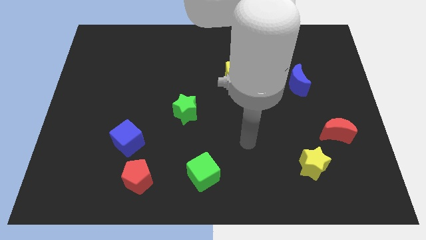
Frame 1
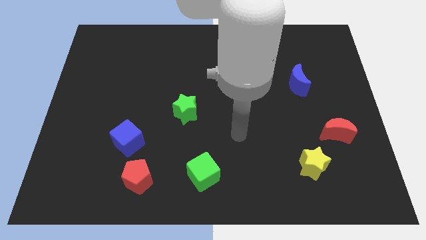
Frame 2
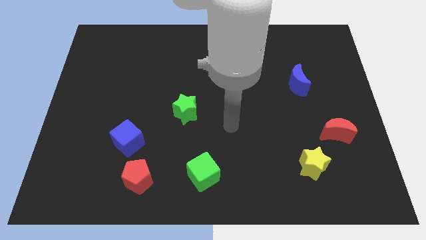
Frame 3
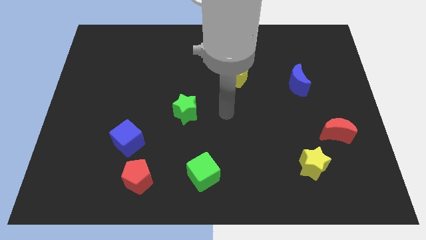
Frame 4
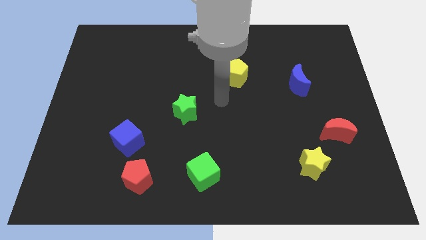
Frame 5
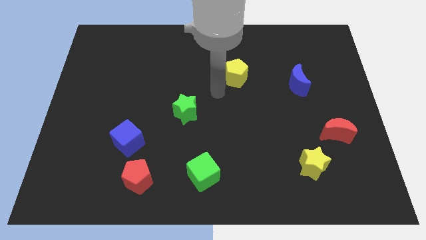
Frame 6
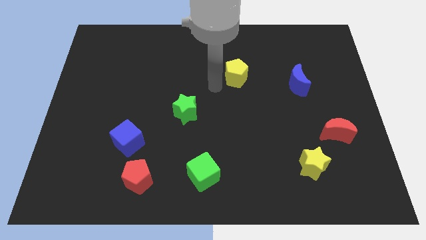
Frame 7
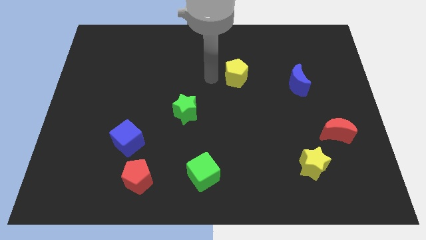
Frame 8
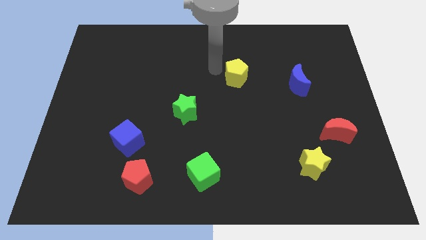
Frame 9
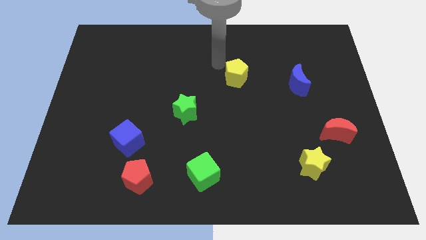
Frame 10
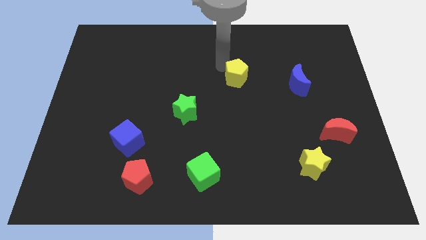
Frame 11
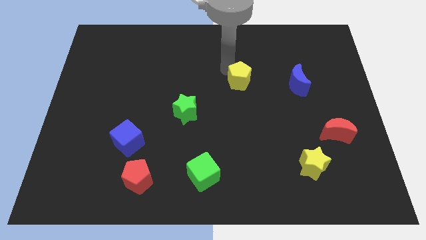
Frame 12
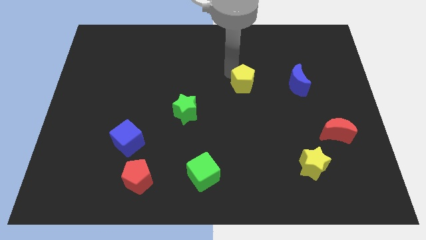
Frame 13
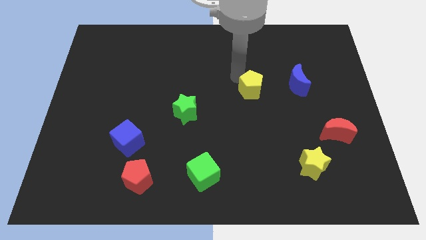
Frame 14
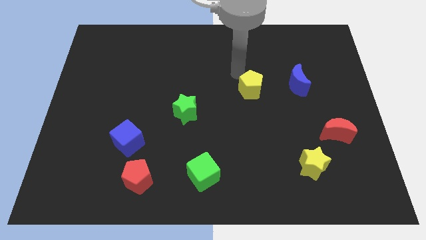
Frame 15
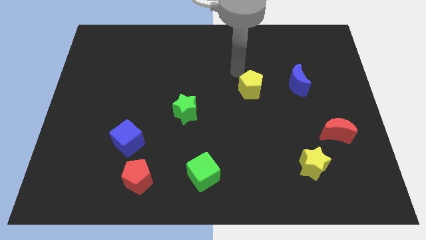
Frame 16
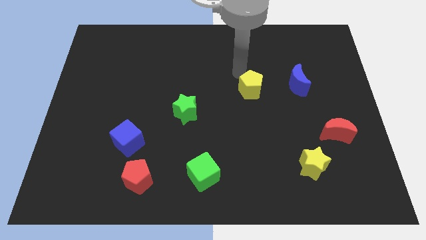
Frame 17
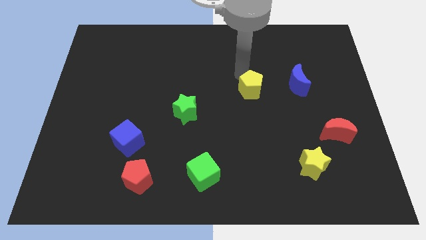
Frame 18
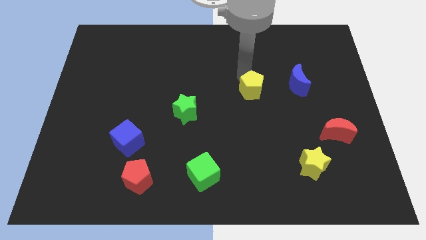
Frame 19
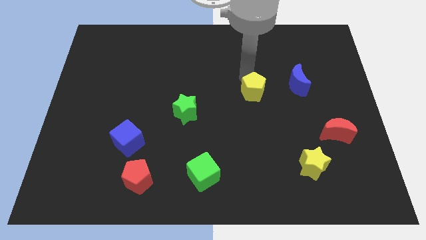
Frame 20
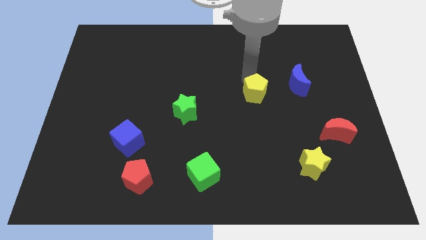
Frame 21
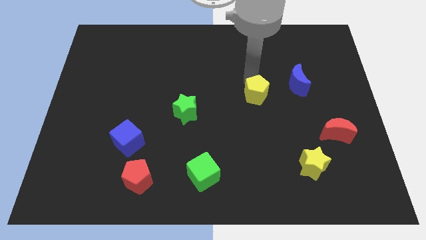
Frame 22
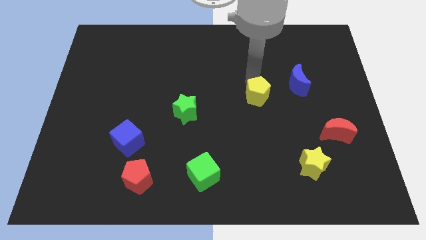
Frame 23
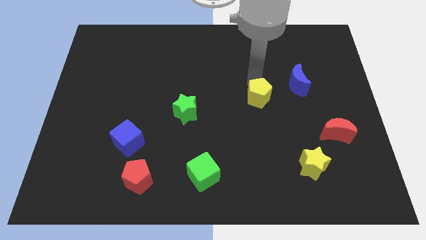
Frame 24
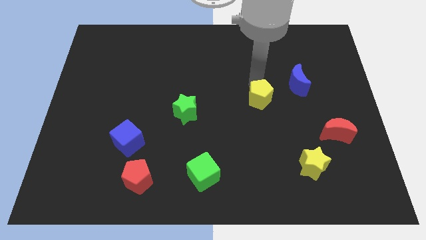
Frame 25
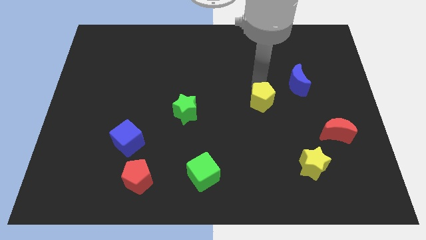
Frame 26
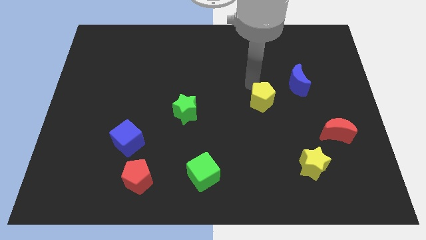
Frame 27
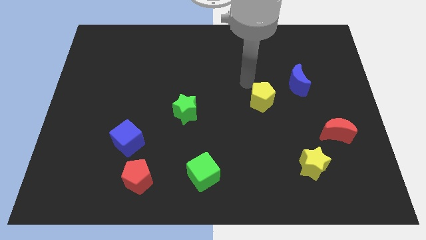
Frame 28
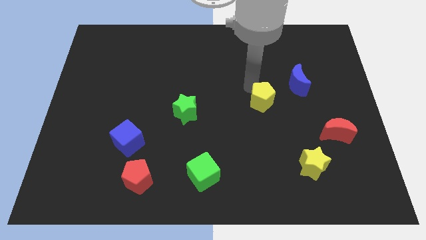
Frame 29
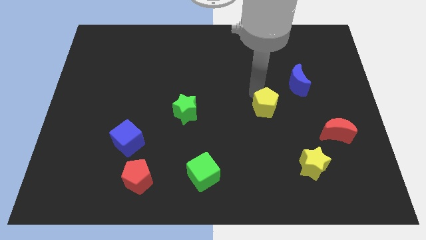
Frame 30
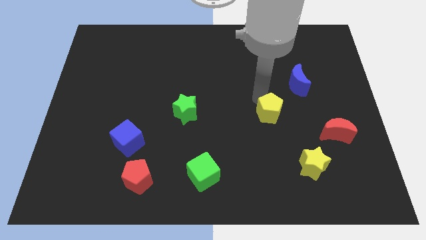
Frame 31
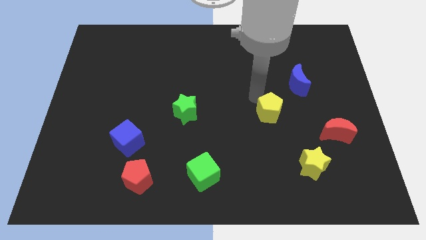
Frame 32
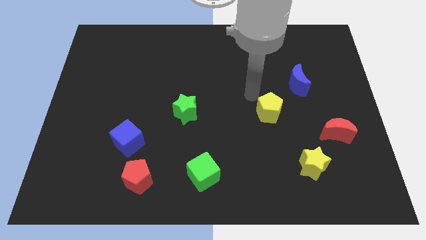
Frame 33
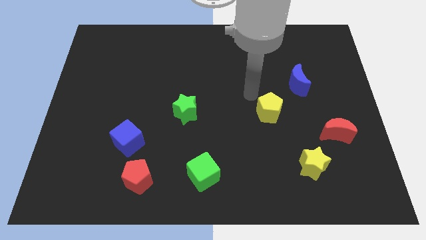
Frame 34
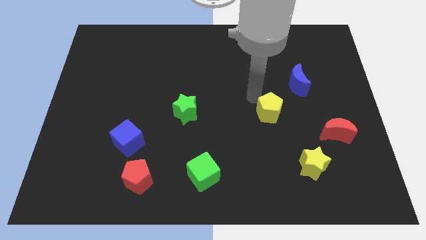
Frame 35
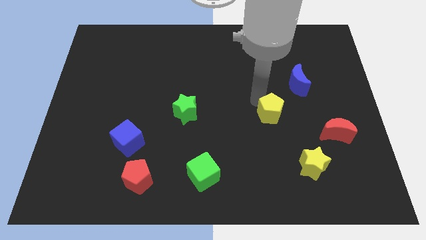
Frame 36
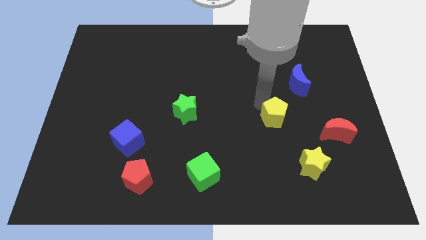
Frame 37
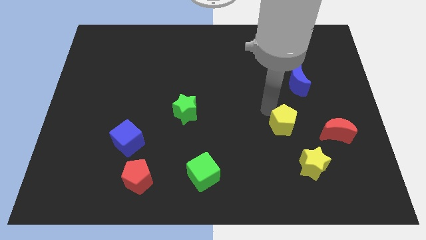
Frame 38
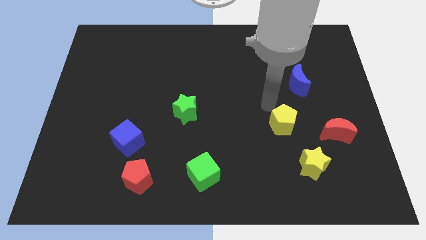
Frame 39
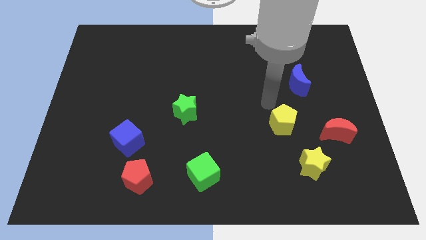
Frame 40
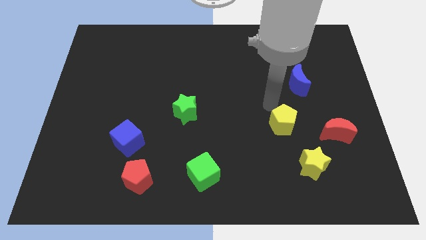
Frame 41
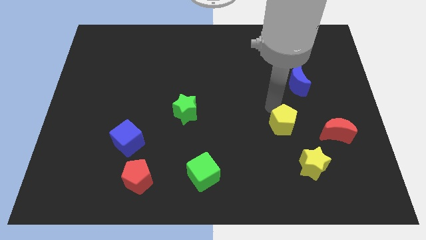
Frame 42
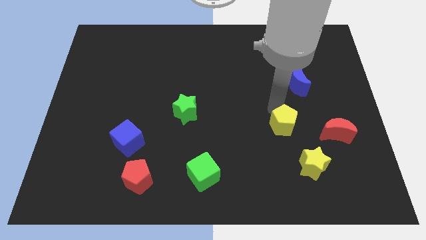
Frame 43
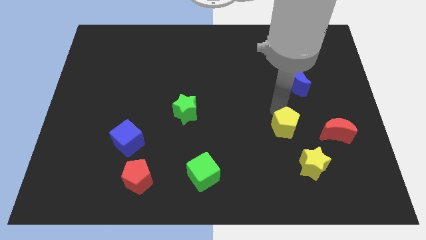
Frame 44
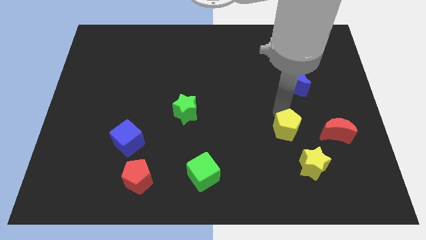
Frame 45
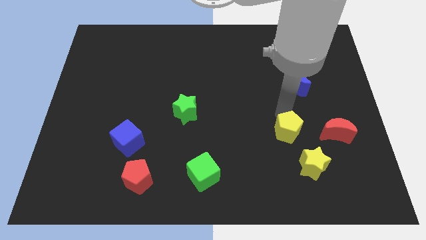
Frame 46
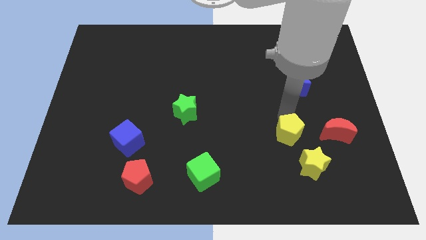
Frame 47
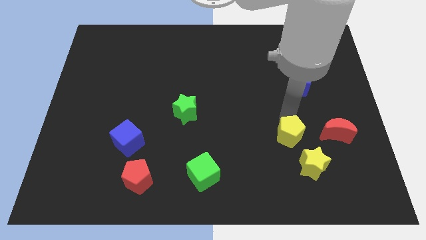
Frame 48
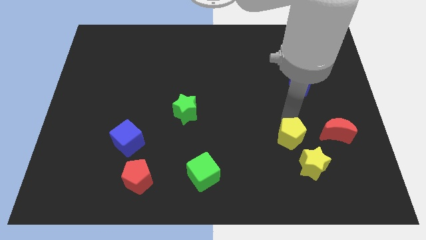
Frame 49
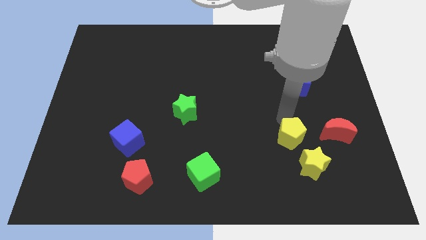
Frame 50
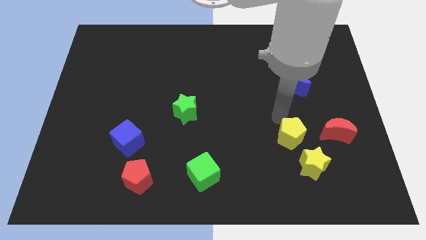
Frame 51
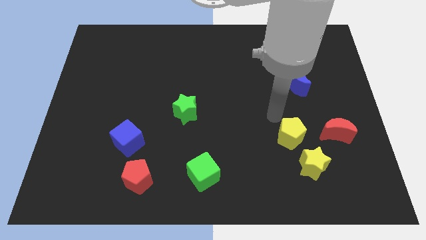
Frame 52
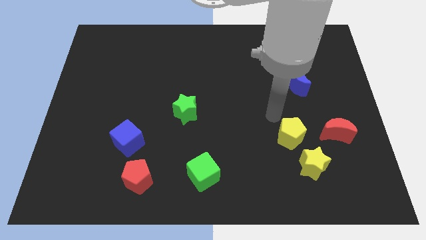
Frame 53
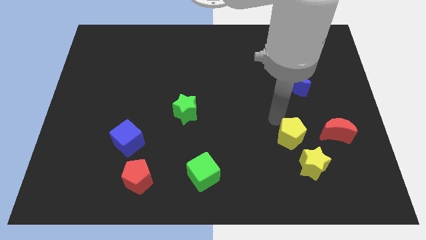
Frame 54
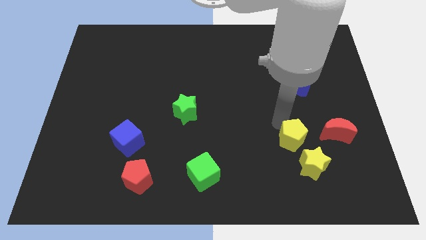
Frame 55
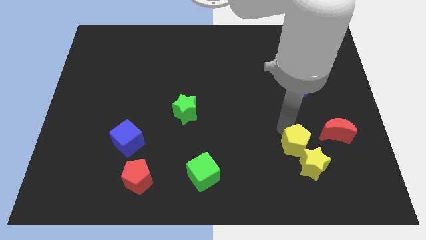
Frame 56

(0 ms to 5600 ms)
put the yellow pentagon close to the yellow star

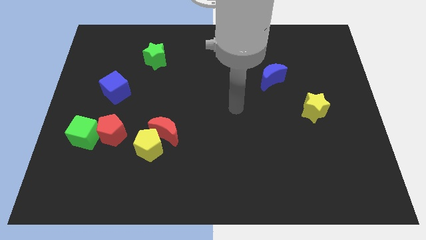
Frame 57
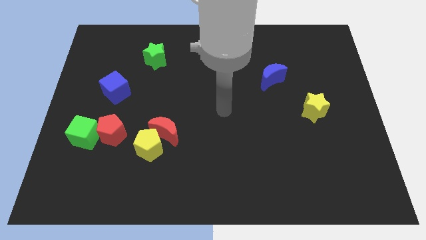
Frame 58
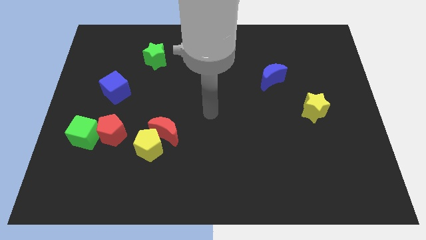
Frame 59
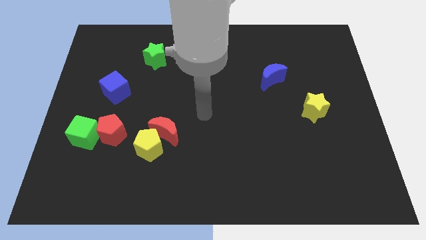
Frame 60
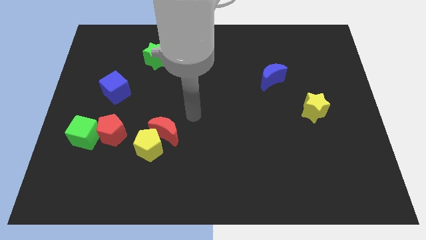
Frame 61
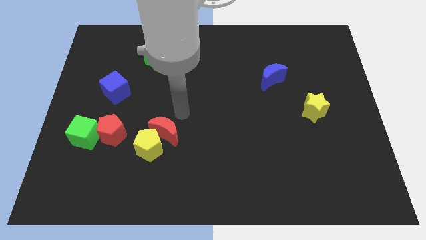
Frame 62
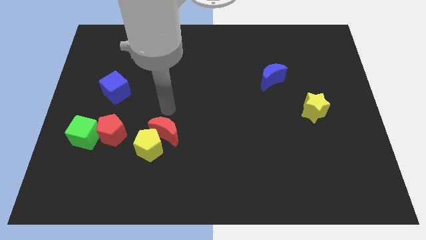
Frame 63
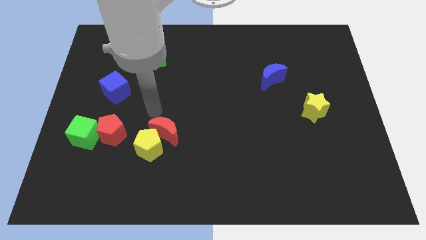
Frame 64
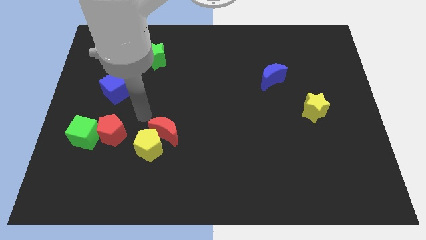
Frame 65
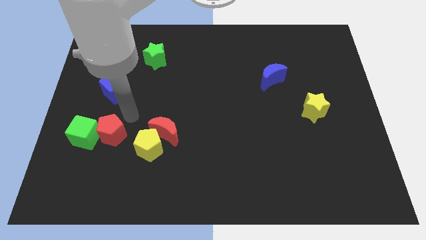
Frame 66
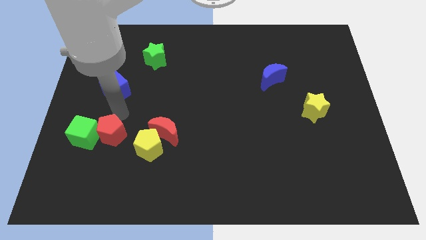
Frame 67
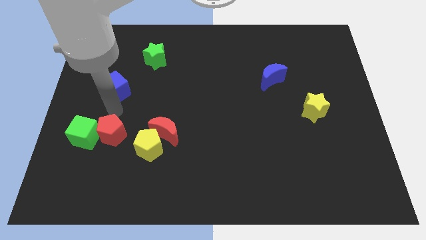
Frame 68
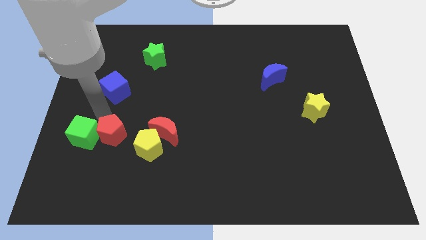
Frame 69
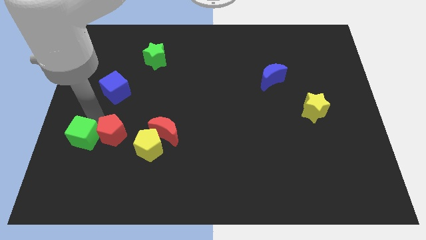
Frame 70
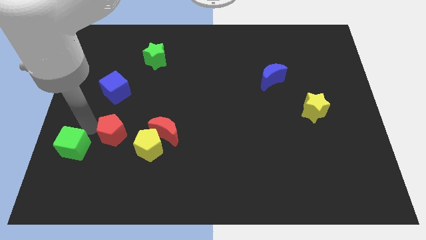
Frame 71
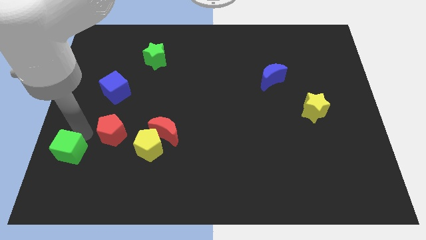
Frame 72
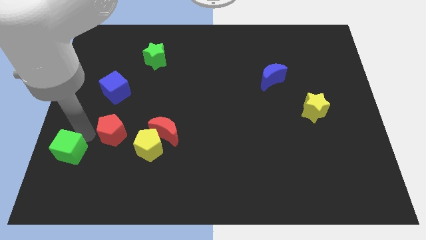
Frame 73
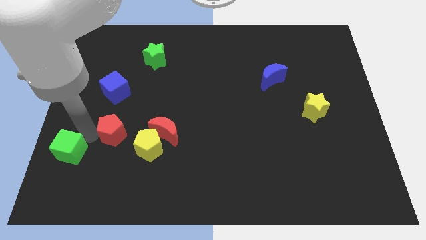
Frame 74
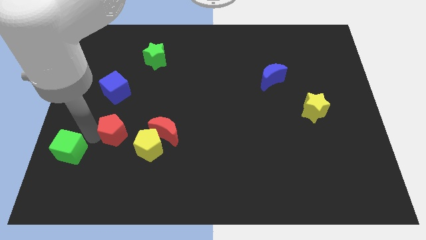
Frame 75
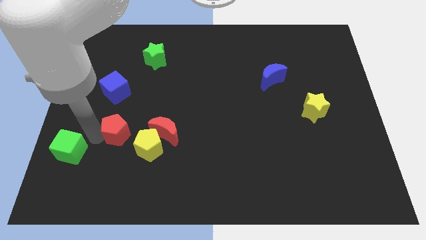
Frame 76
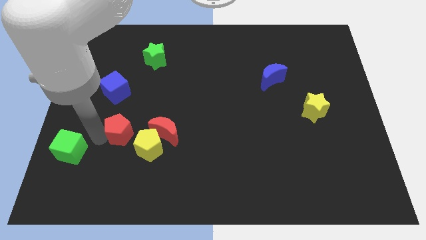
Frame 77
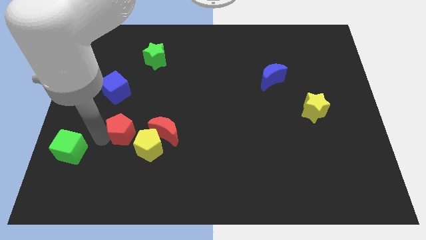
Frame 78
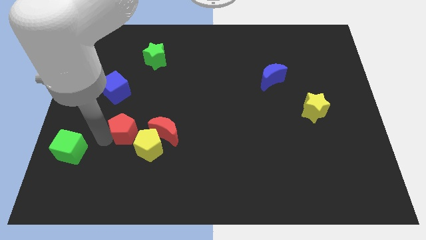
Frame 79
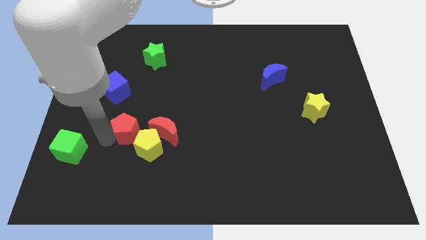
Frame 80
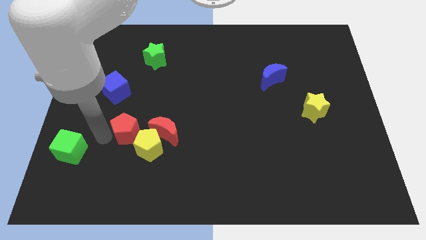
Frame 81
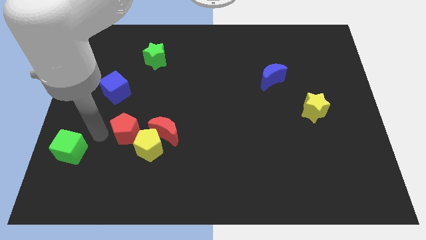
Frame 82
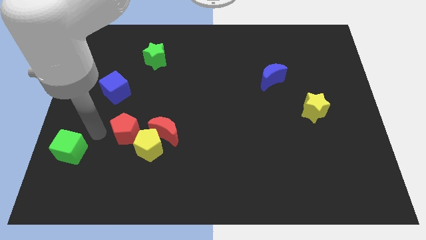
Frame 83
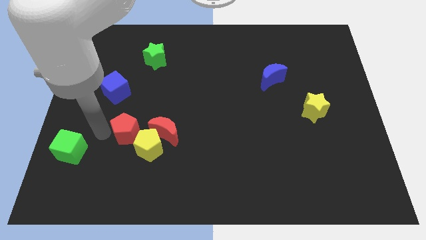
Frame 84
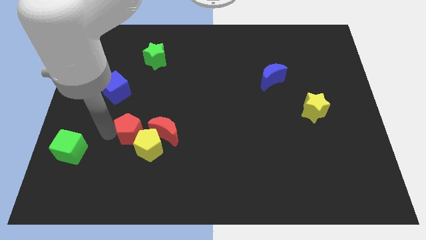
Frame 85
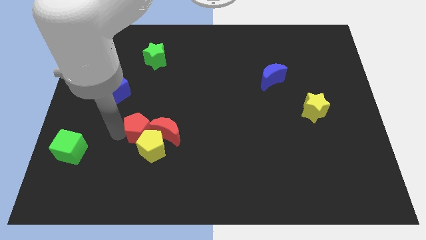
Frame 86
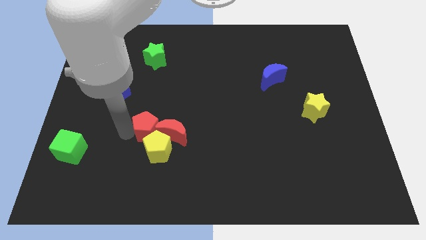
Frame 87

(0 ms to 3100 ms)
push the red pentagon close to the red moon
